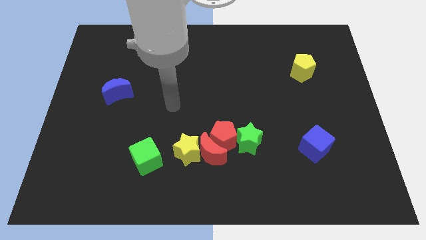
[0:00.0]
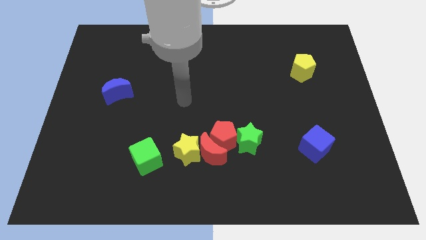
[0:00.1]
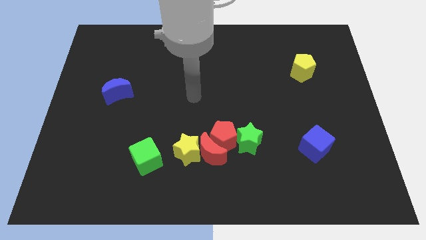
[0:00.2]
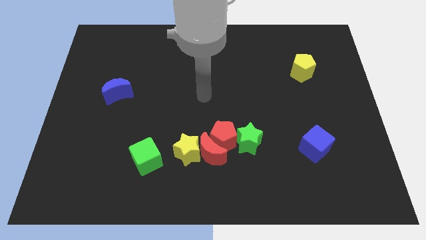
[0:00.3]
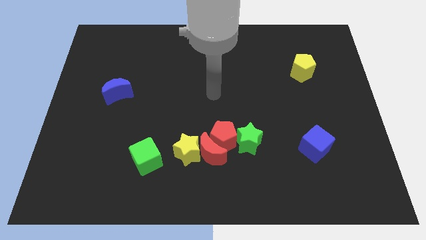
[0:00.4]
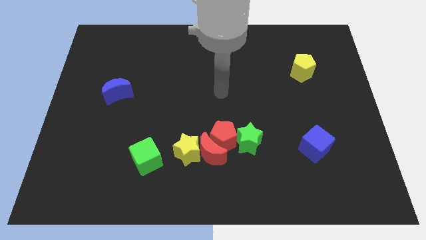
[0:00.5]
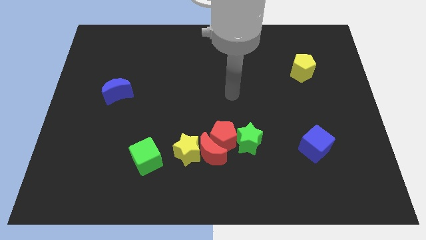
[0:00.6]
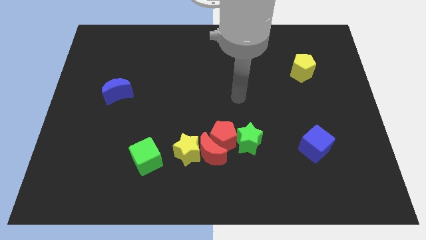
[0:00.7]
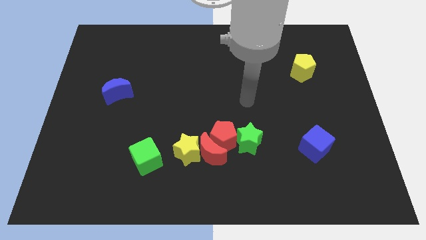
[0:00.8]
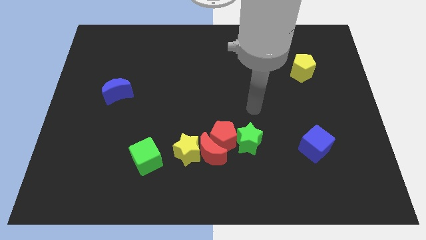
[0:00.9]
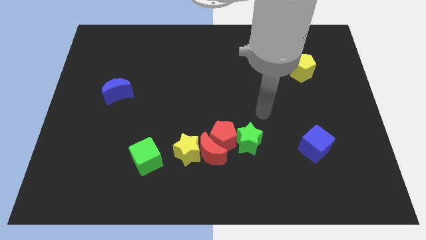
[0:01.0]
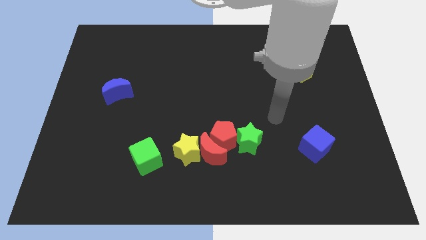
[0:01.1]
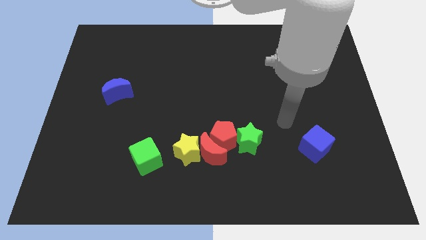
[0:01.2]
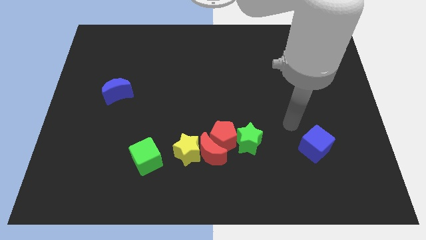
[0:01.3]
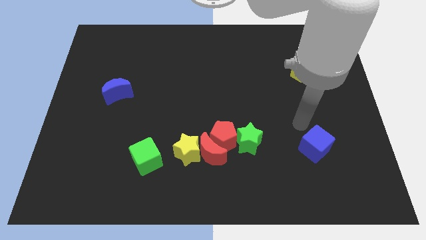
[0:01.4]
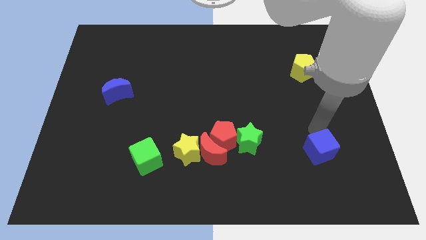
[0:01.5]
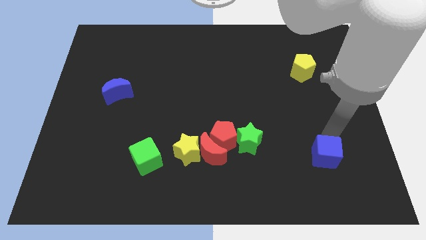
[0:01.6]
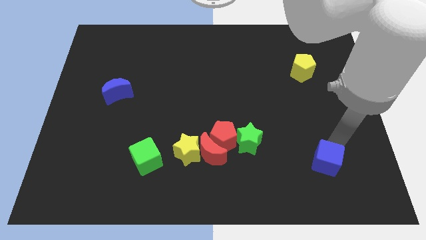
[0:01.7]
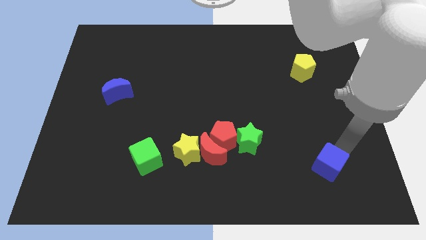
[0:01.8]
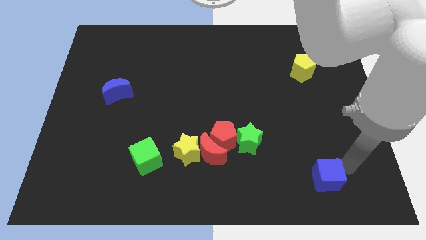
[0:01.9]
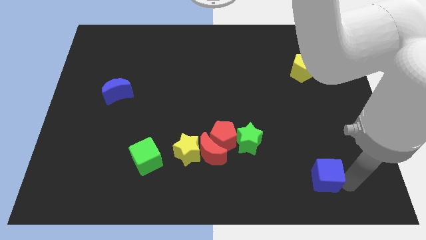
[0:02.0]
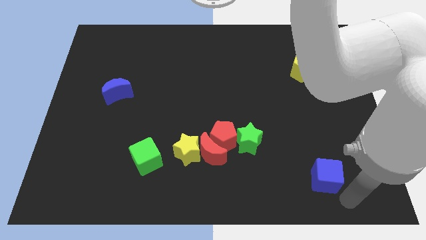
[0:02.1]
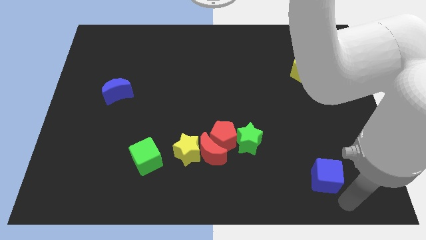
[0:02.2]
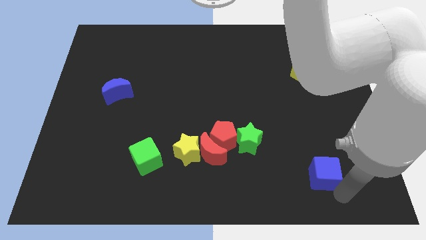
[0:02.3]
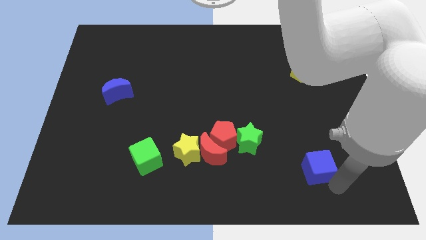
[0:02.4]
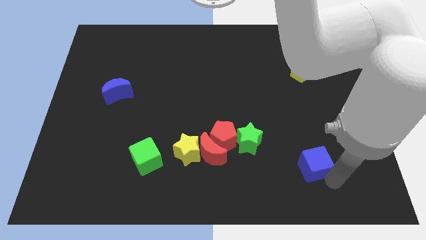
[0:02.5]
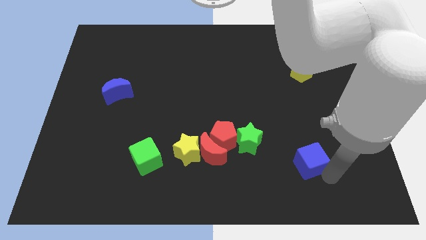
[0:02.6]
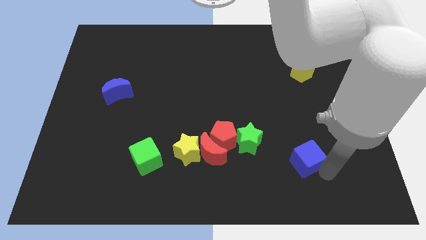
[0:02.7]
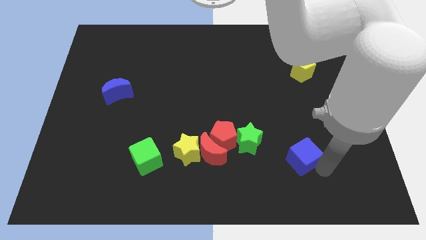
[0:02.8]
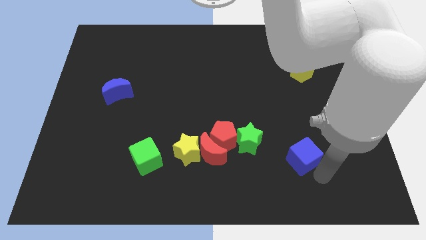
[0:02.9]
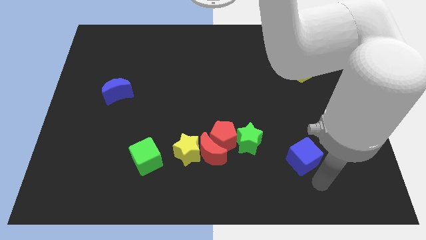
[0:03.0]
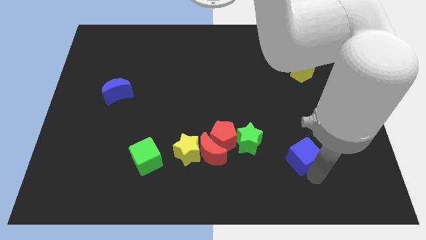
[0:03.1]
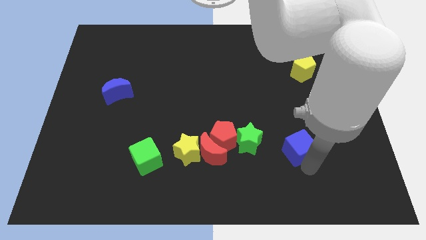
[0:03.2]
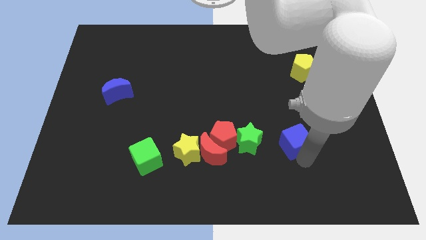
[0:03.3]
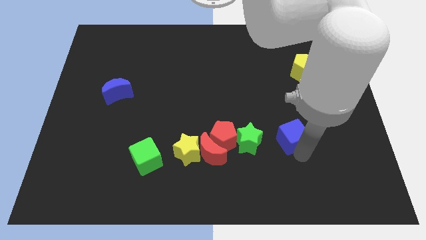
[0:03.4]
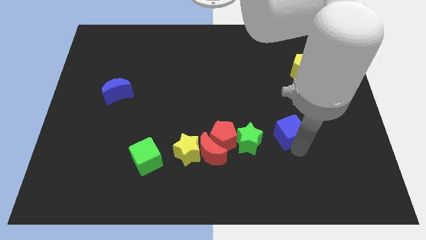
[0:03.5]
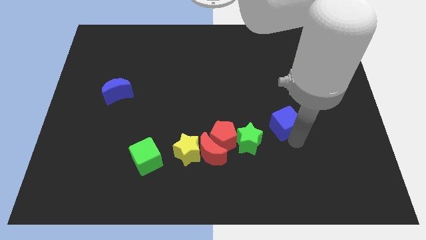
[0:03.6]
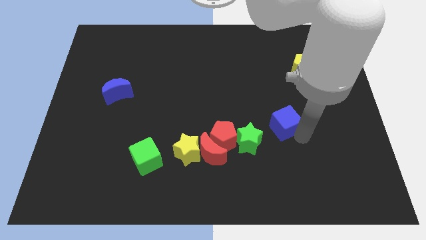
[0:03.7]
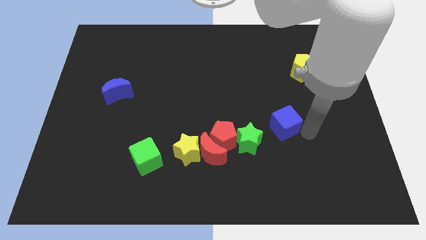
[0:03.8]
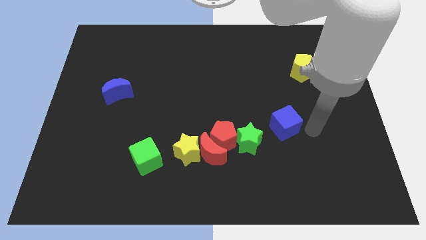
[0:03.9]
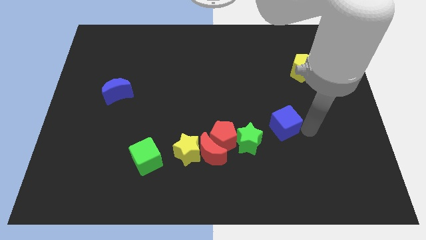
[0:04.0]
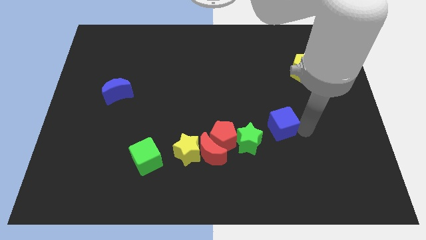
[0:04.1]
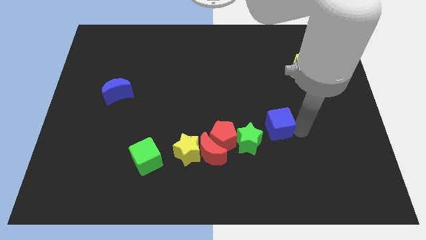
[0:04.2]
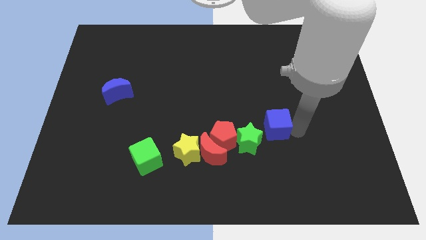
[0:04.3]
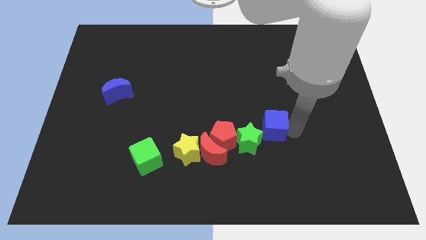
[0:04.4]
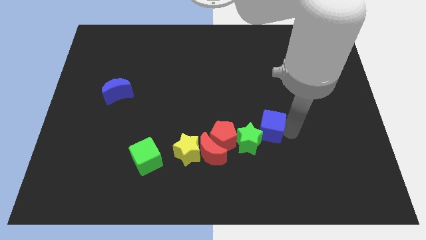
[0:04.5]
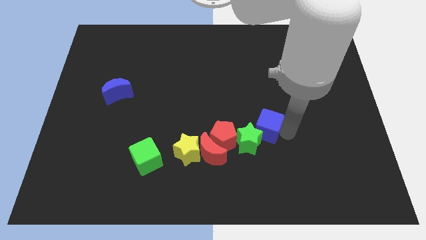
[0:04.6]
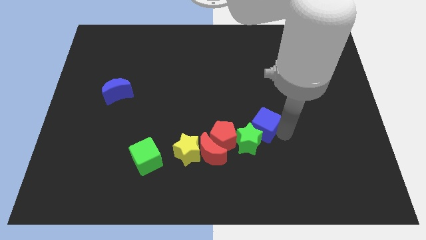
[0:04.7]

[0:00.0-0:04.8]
push the blue cube diagonally up and to the right of the red pentagon

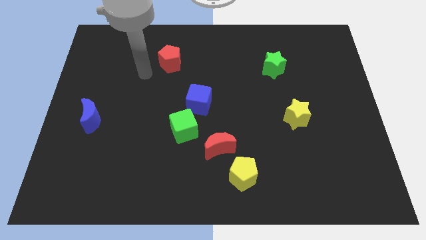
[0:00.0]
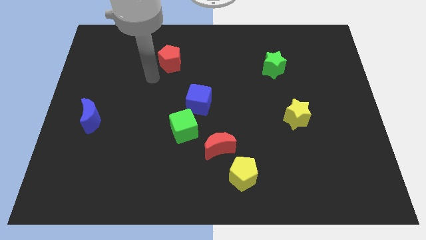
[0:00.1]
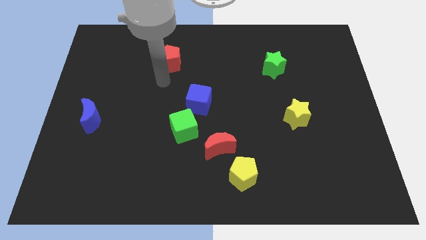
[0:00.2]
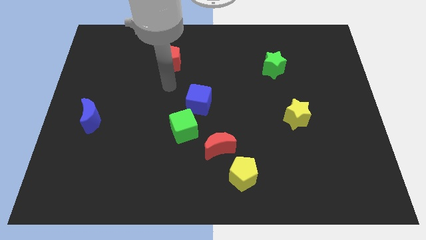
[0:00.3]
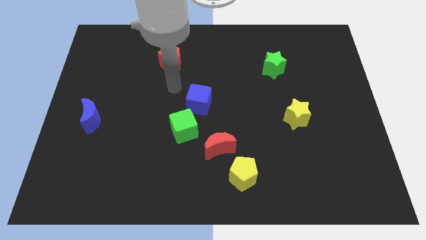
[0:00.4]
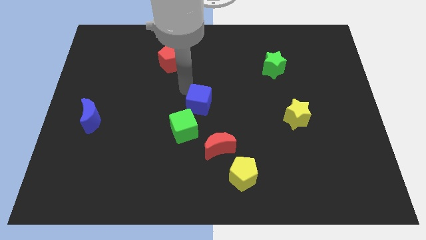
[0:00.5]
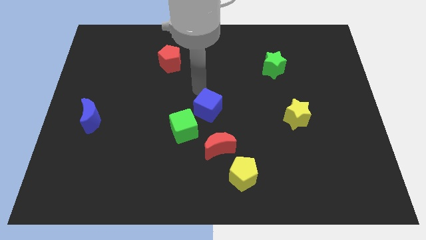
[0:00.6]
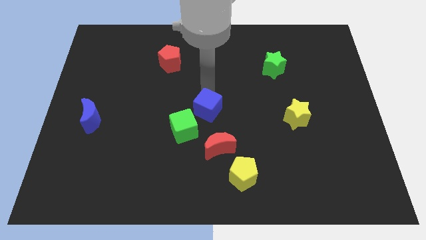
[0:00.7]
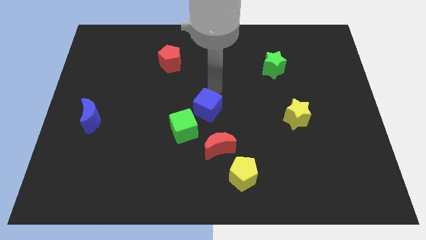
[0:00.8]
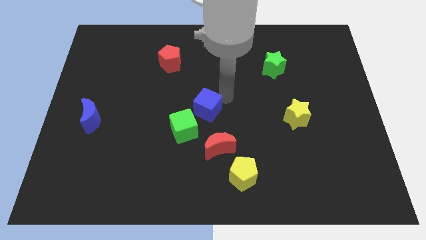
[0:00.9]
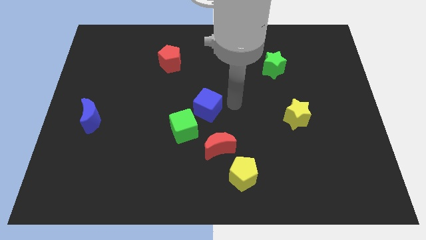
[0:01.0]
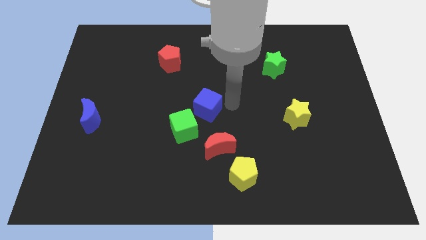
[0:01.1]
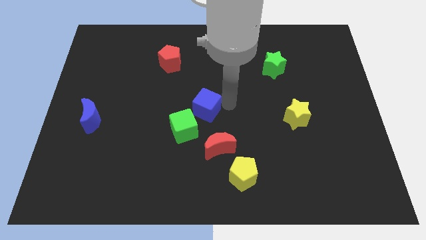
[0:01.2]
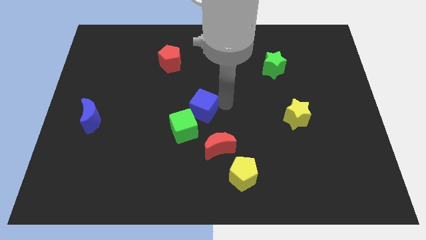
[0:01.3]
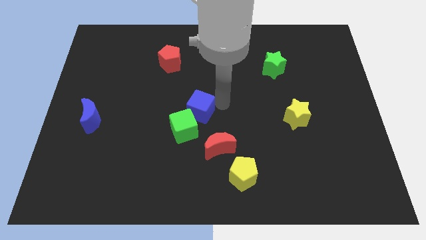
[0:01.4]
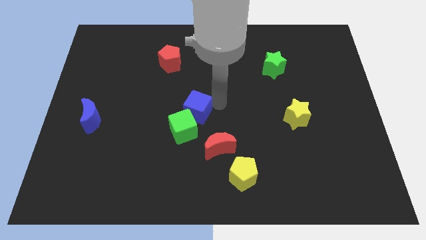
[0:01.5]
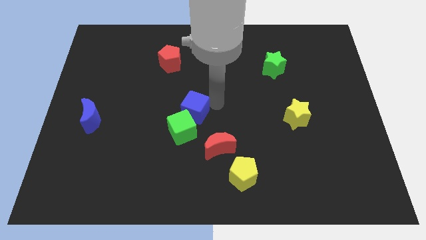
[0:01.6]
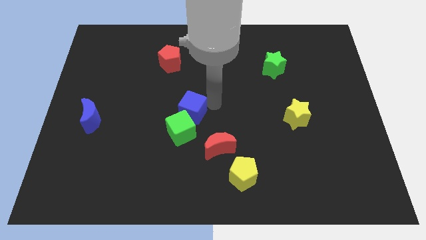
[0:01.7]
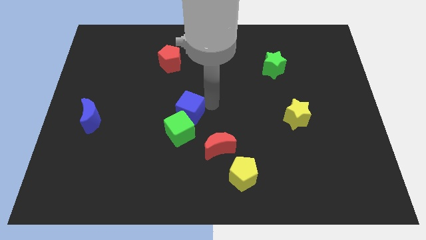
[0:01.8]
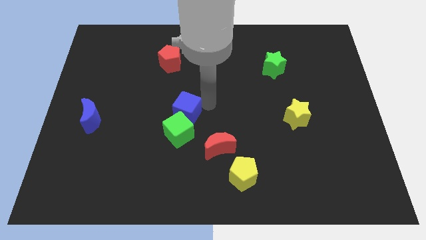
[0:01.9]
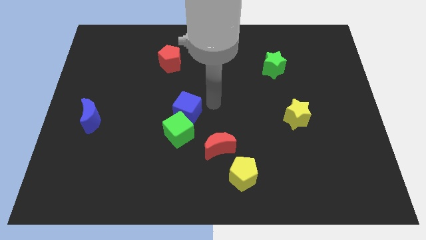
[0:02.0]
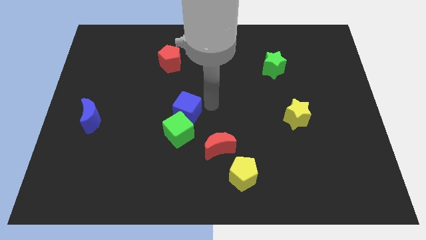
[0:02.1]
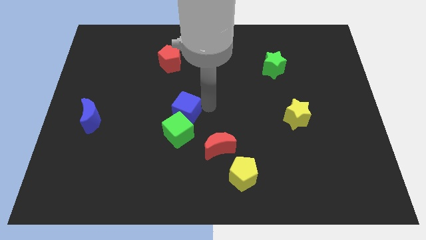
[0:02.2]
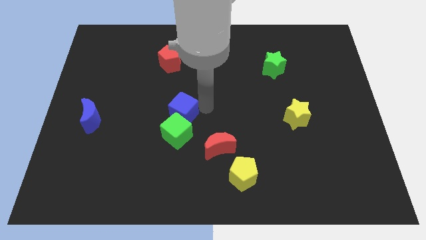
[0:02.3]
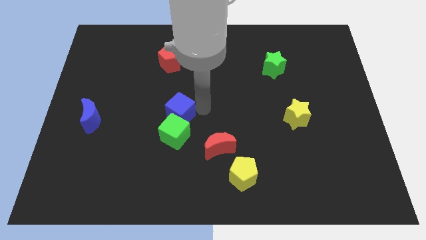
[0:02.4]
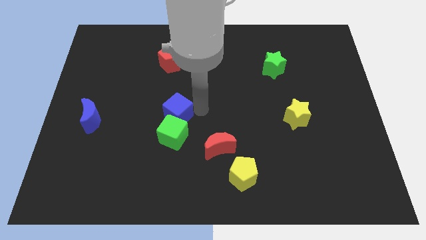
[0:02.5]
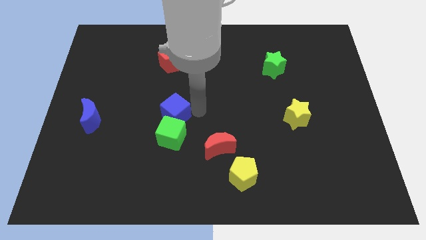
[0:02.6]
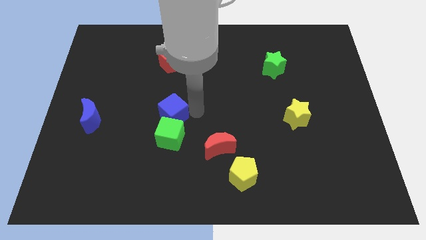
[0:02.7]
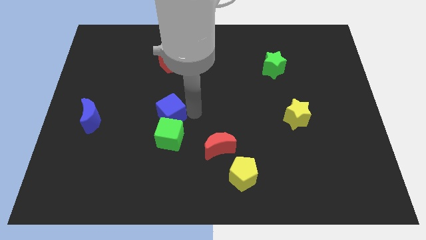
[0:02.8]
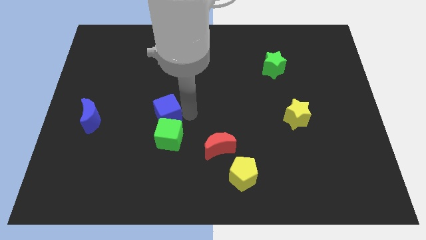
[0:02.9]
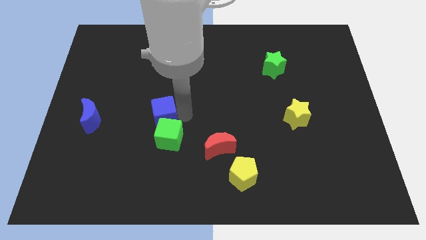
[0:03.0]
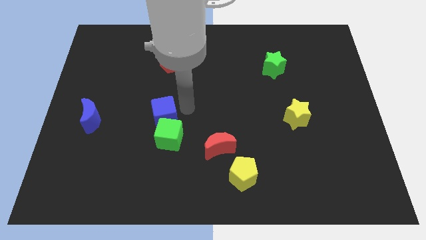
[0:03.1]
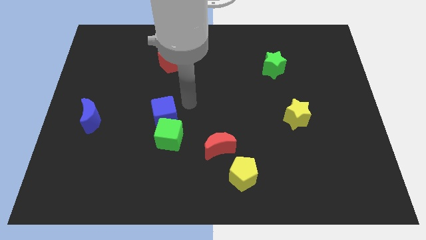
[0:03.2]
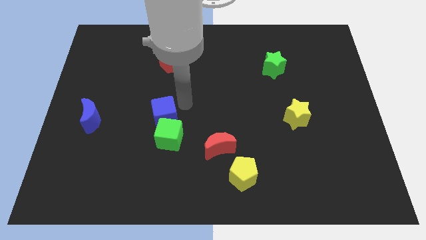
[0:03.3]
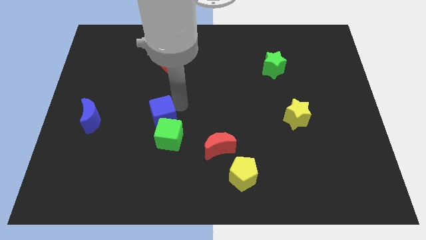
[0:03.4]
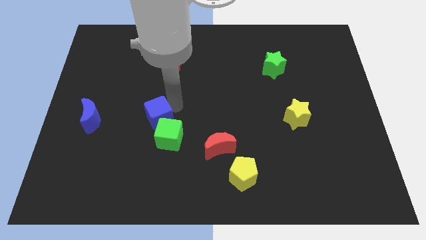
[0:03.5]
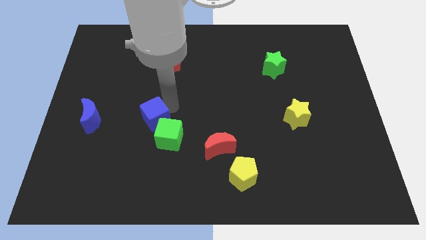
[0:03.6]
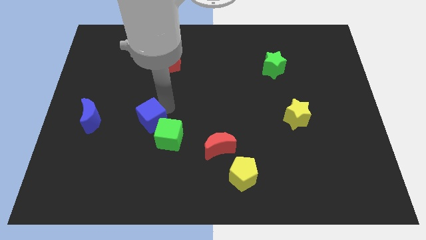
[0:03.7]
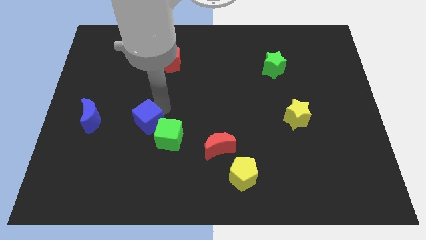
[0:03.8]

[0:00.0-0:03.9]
put the blue cube just left of the green cube

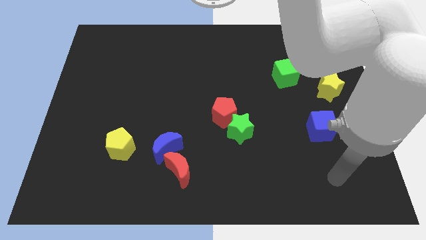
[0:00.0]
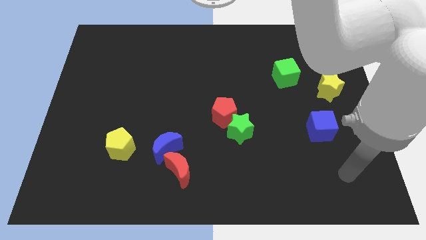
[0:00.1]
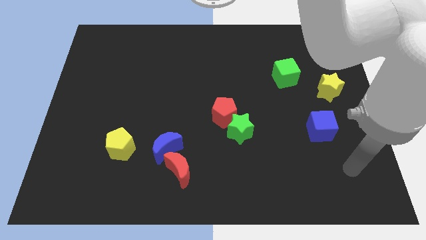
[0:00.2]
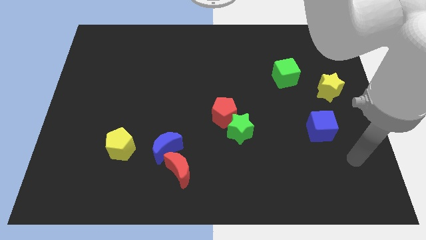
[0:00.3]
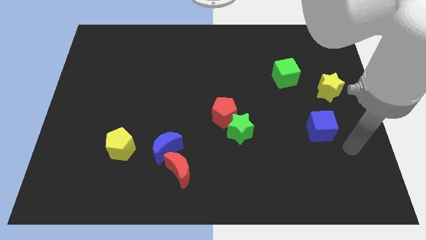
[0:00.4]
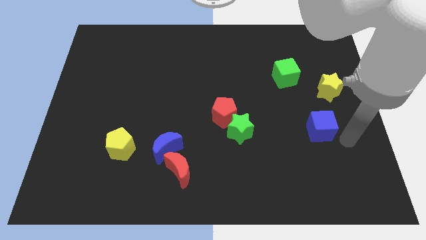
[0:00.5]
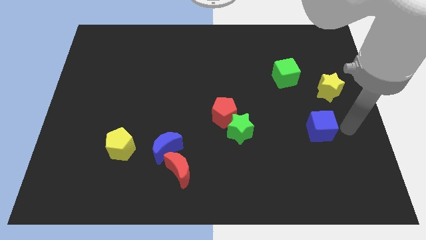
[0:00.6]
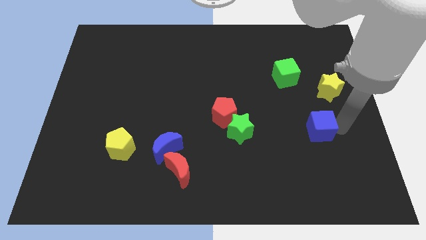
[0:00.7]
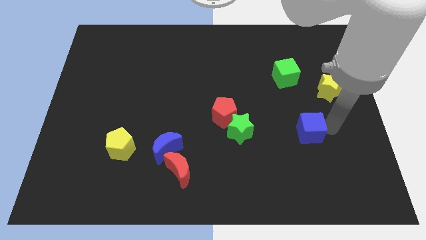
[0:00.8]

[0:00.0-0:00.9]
move the blue cube to the right side of the green star
